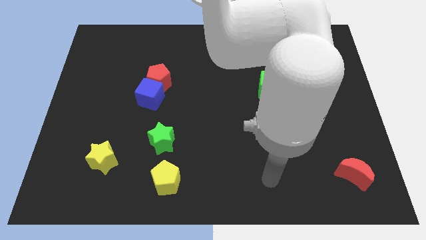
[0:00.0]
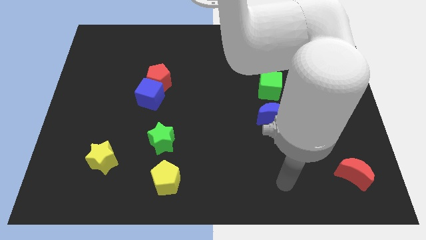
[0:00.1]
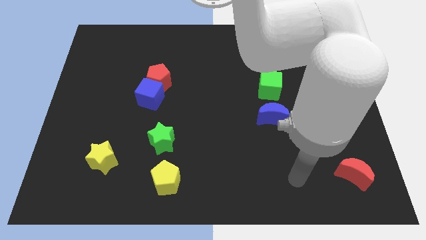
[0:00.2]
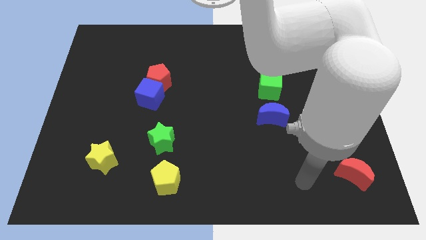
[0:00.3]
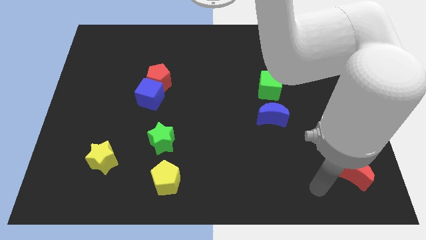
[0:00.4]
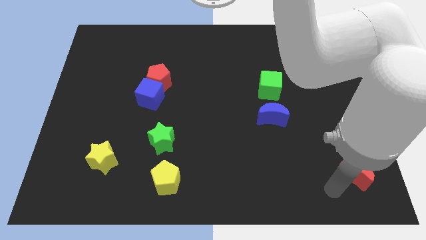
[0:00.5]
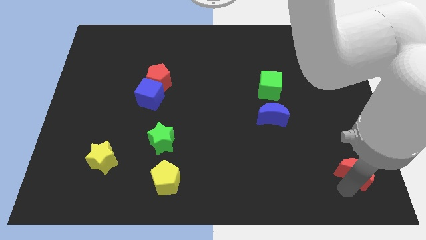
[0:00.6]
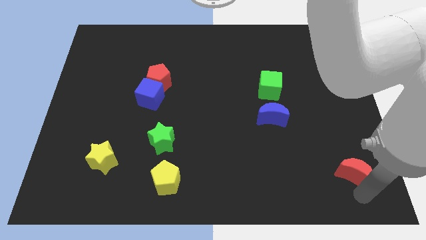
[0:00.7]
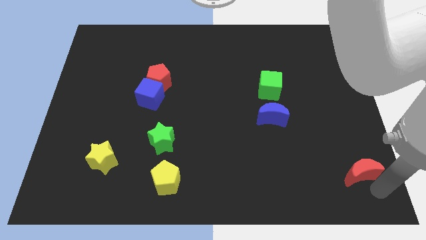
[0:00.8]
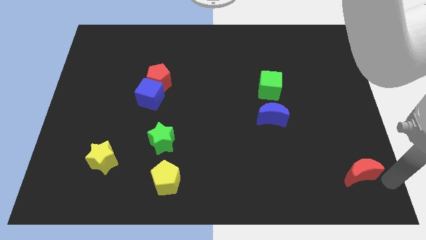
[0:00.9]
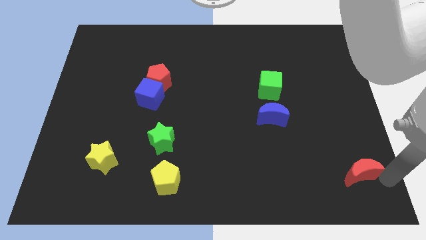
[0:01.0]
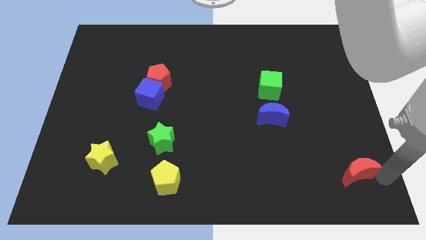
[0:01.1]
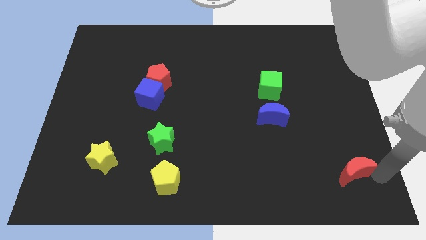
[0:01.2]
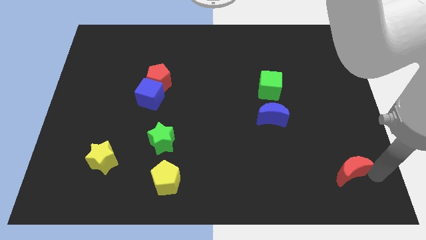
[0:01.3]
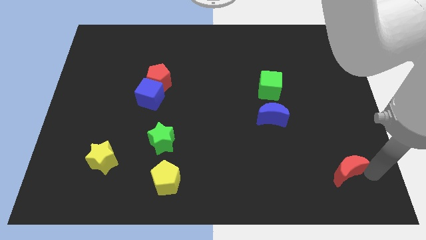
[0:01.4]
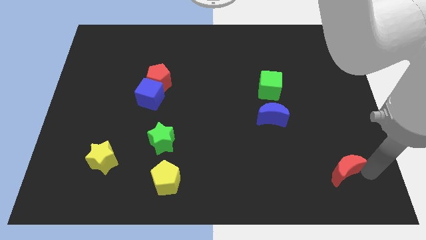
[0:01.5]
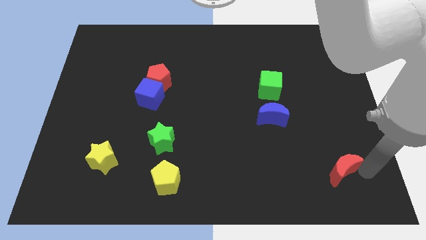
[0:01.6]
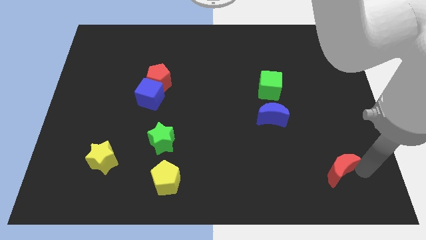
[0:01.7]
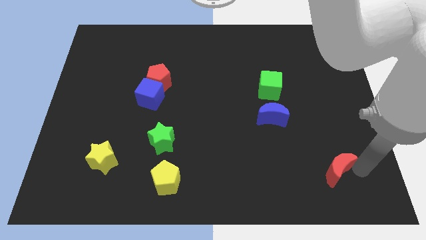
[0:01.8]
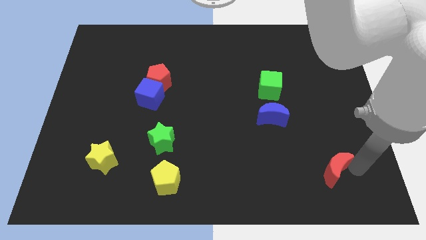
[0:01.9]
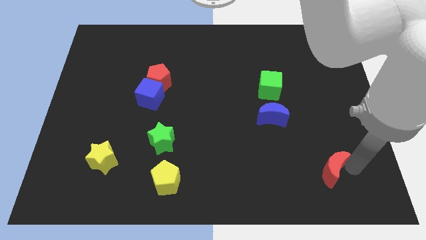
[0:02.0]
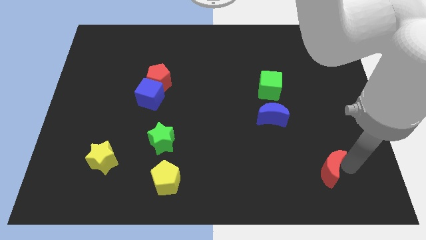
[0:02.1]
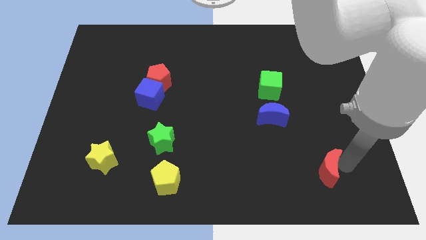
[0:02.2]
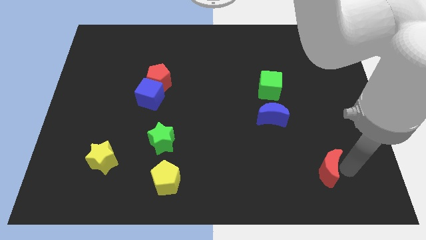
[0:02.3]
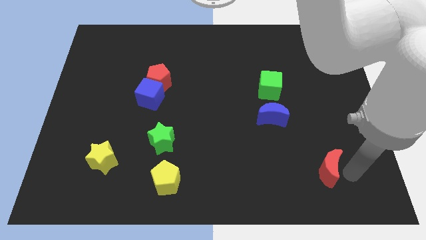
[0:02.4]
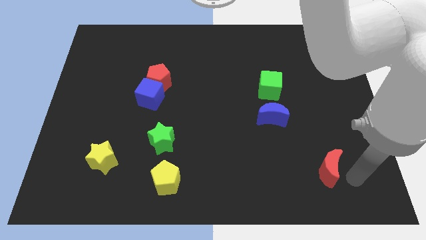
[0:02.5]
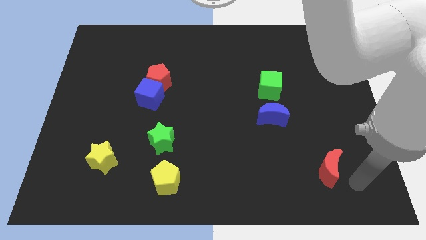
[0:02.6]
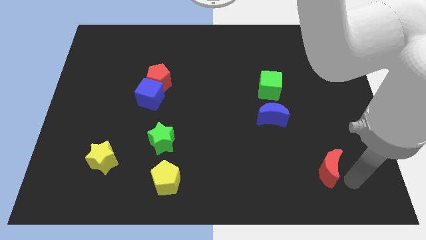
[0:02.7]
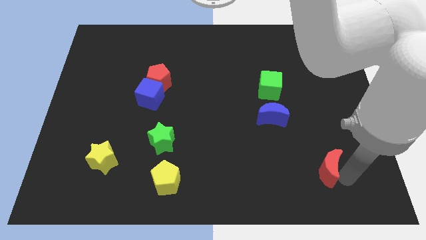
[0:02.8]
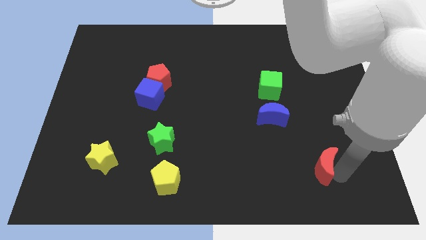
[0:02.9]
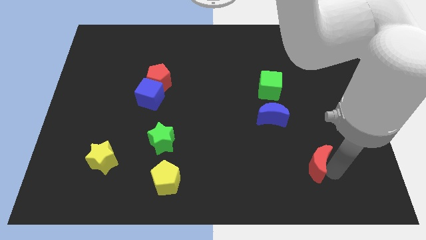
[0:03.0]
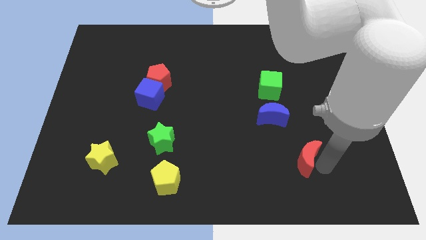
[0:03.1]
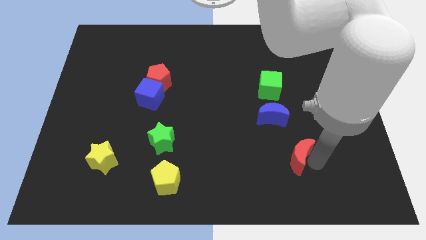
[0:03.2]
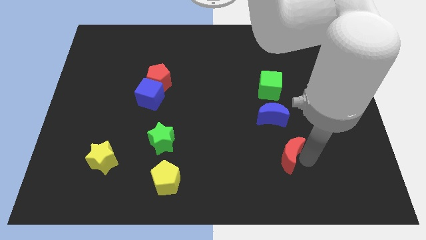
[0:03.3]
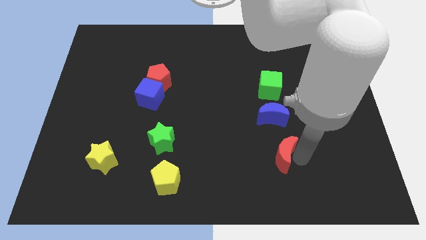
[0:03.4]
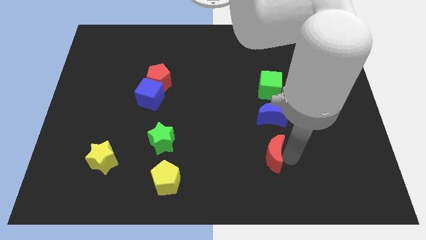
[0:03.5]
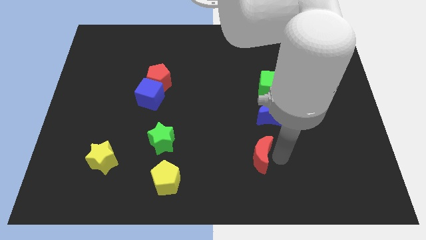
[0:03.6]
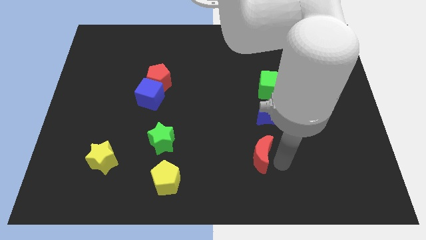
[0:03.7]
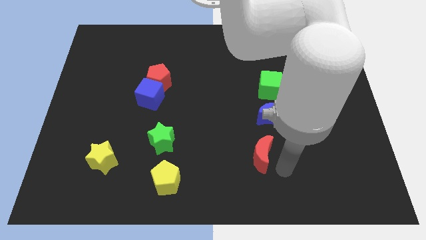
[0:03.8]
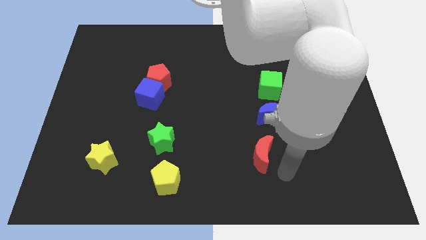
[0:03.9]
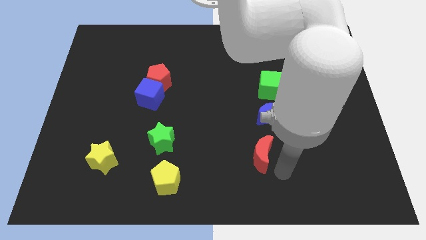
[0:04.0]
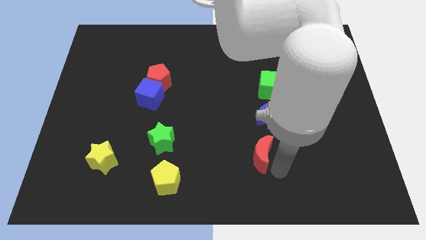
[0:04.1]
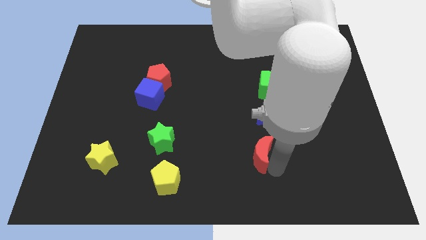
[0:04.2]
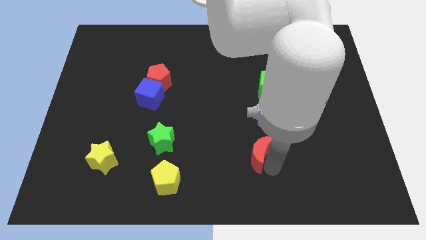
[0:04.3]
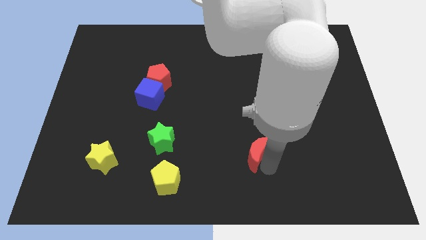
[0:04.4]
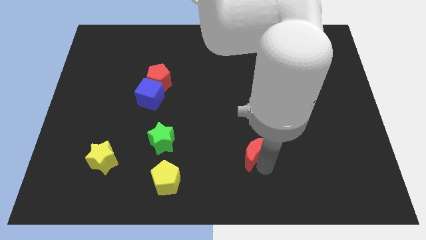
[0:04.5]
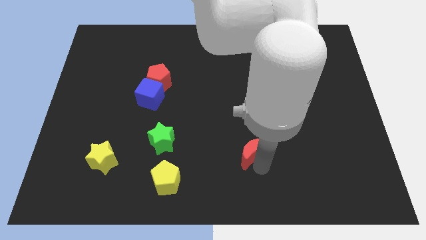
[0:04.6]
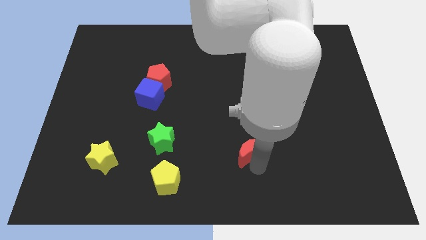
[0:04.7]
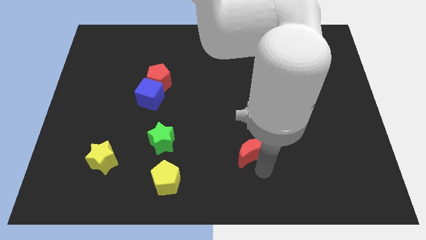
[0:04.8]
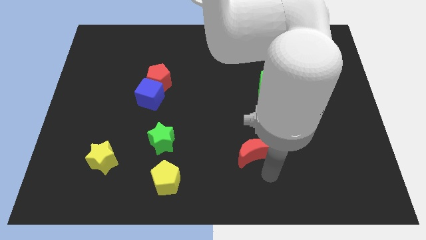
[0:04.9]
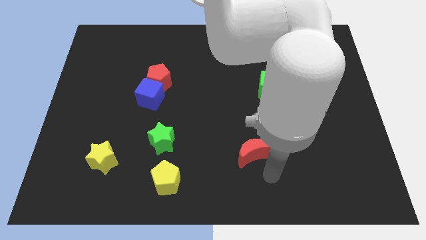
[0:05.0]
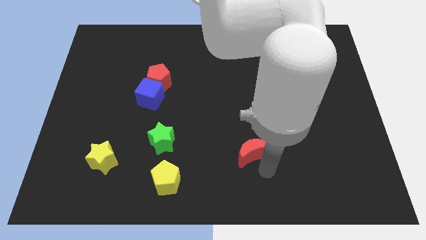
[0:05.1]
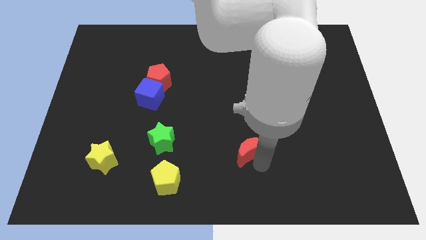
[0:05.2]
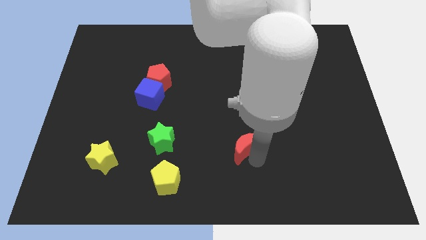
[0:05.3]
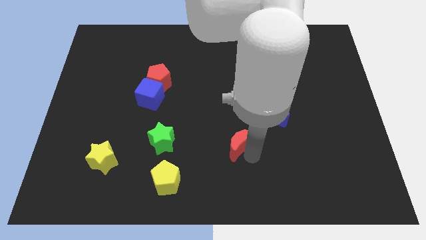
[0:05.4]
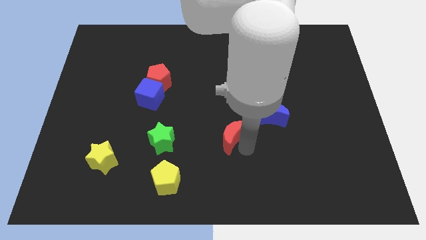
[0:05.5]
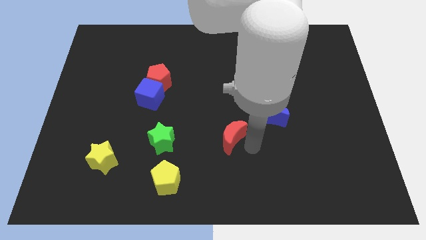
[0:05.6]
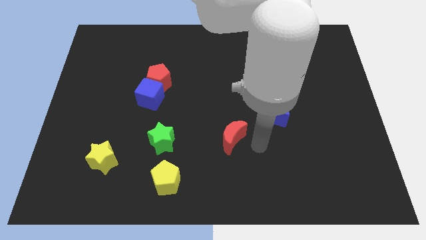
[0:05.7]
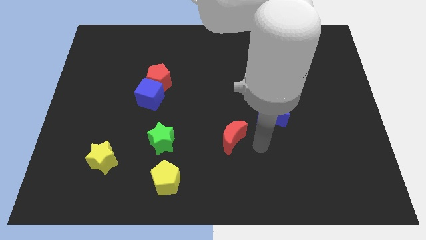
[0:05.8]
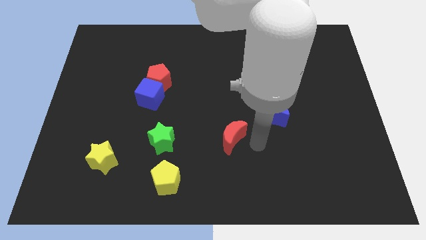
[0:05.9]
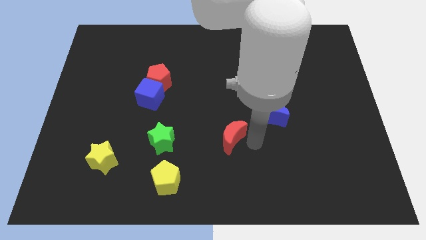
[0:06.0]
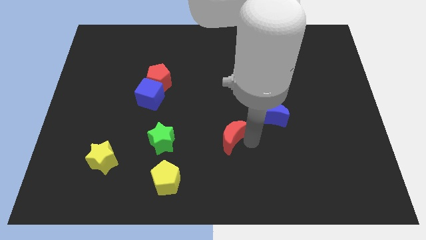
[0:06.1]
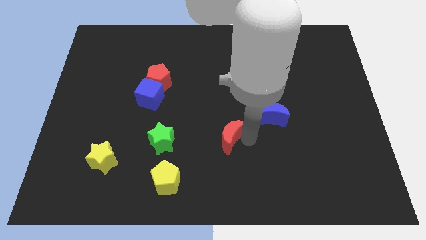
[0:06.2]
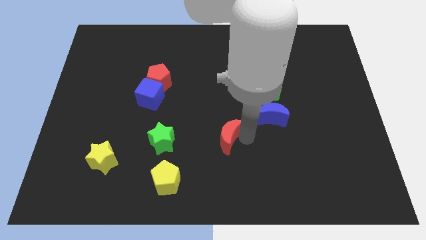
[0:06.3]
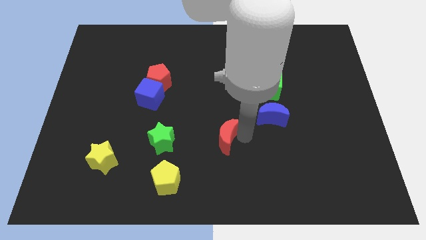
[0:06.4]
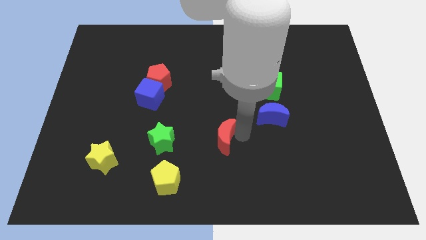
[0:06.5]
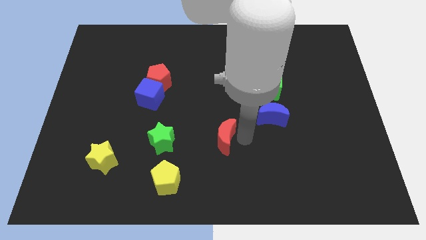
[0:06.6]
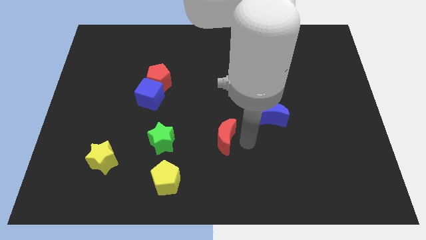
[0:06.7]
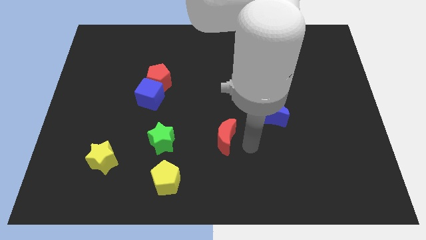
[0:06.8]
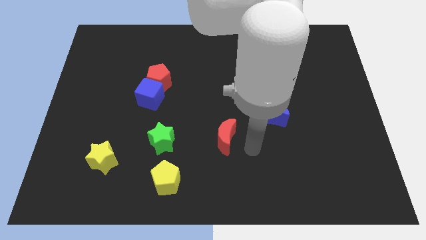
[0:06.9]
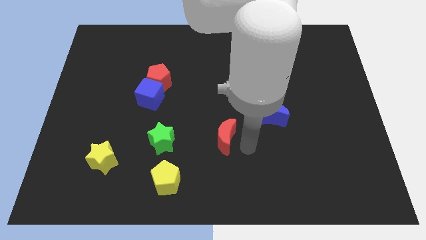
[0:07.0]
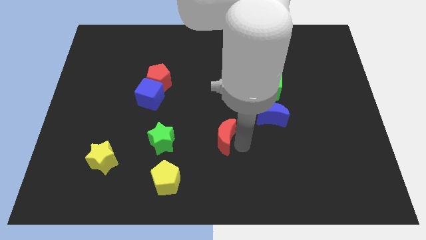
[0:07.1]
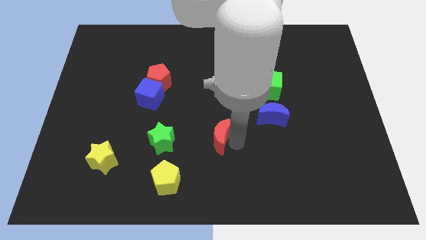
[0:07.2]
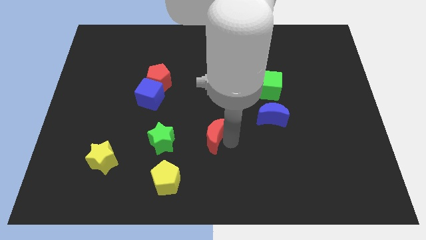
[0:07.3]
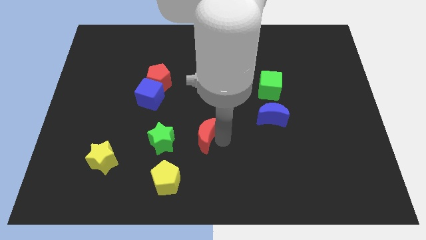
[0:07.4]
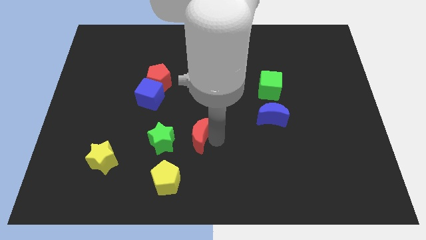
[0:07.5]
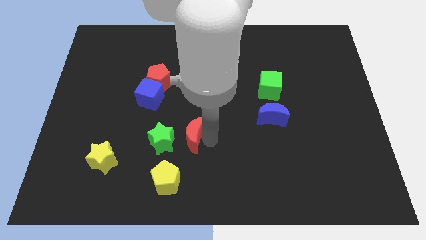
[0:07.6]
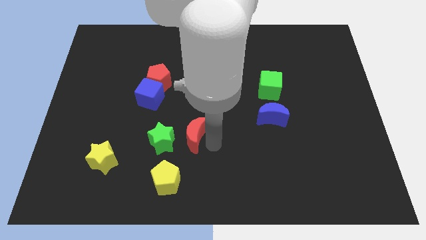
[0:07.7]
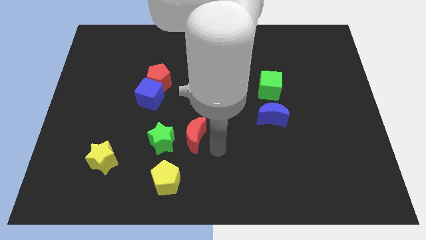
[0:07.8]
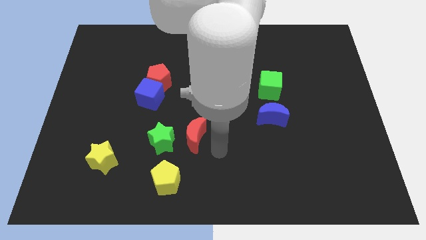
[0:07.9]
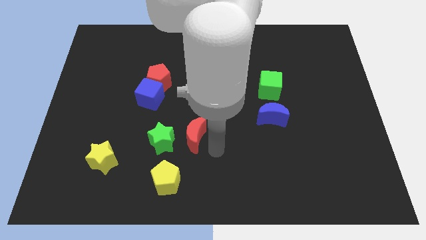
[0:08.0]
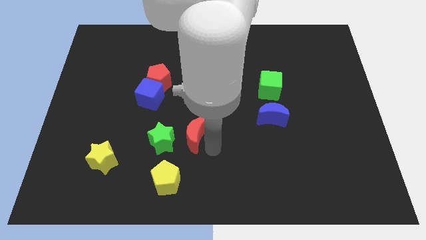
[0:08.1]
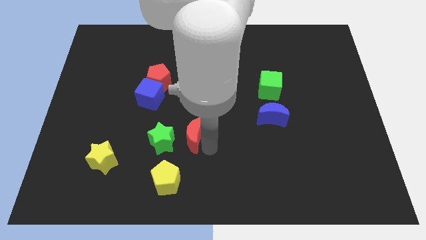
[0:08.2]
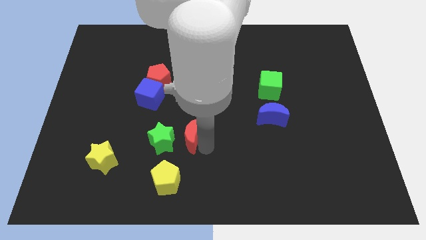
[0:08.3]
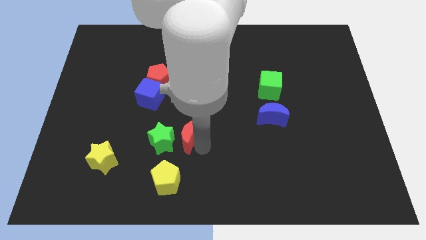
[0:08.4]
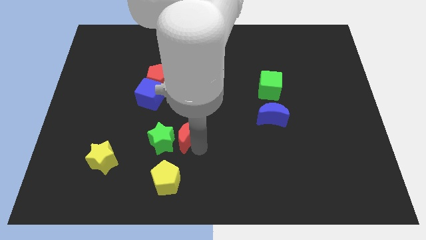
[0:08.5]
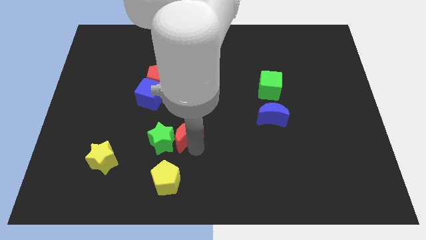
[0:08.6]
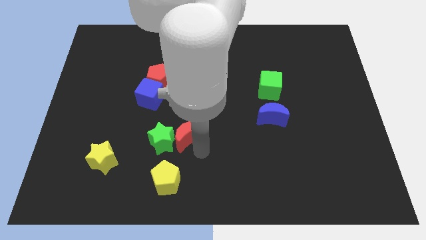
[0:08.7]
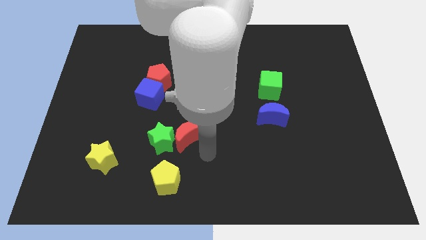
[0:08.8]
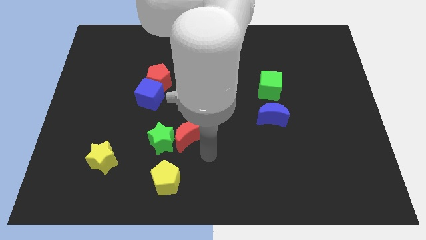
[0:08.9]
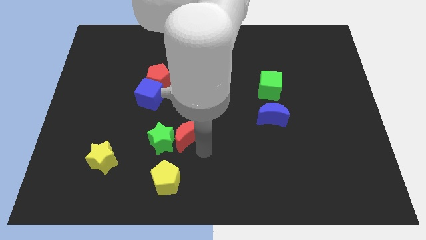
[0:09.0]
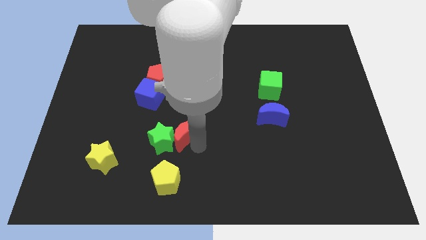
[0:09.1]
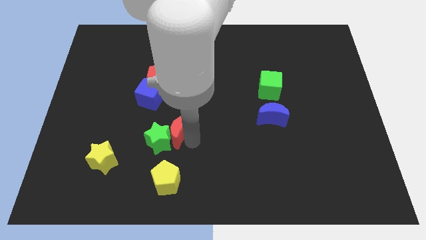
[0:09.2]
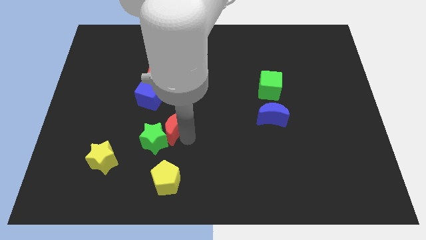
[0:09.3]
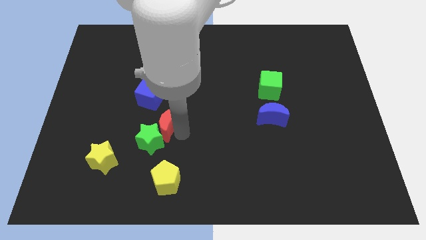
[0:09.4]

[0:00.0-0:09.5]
move the red moon to the bottom side of the red pentagon
